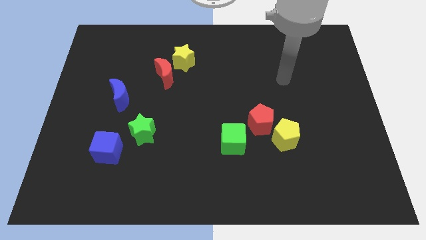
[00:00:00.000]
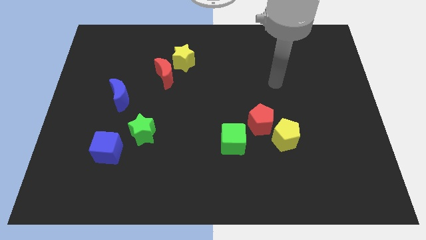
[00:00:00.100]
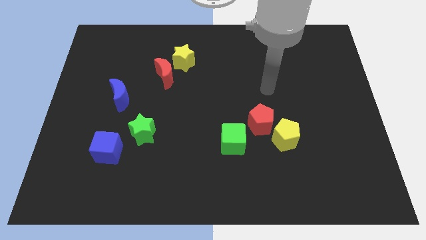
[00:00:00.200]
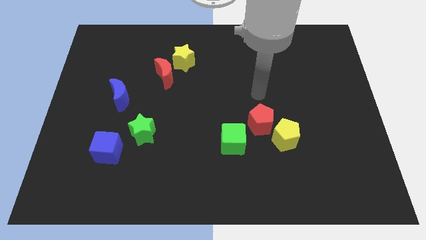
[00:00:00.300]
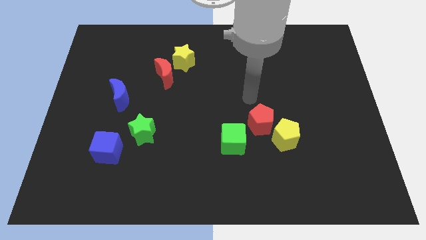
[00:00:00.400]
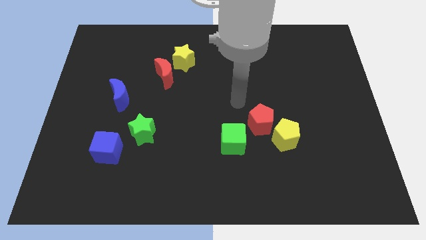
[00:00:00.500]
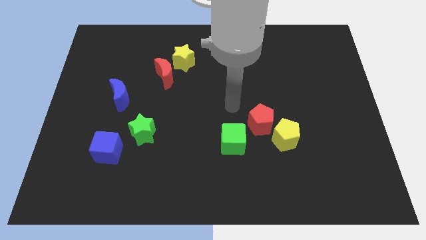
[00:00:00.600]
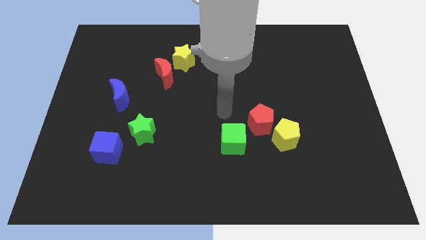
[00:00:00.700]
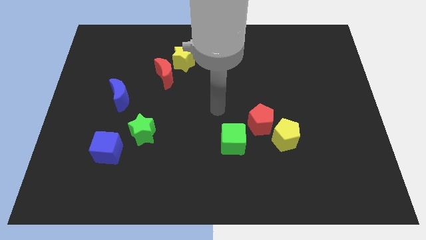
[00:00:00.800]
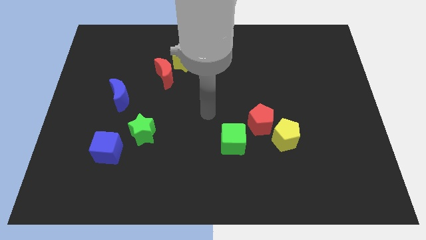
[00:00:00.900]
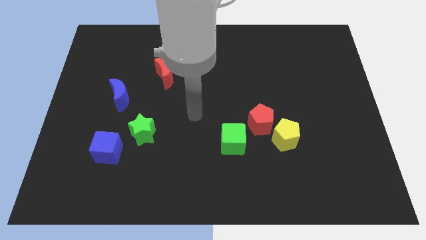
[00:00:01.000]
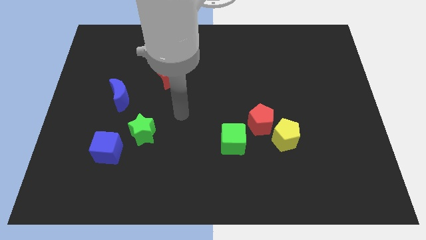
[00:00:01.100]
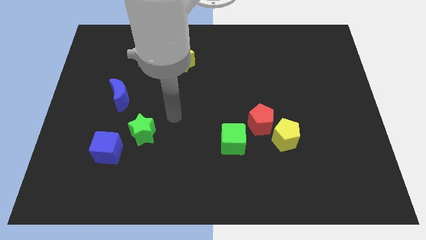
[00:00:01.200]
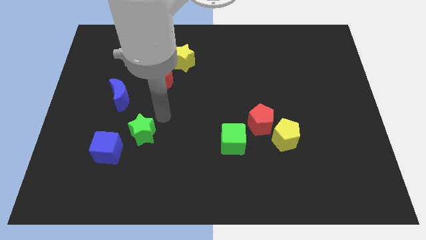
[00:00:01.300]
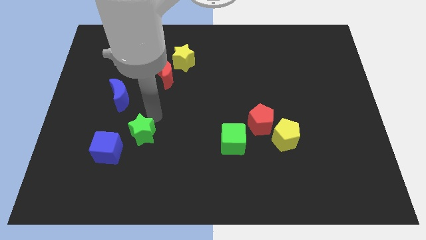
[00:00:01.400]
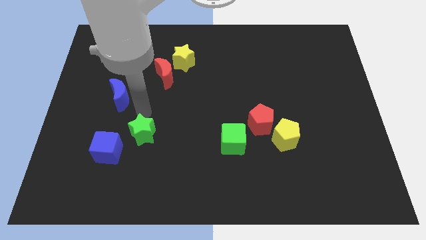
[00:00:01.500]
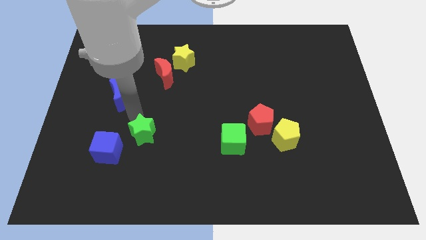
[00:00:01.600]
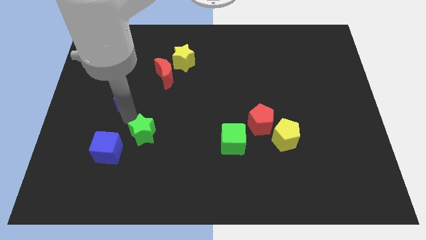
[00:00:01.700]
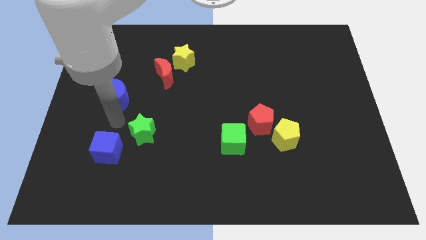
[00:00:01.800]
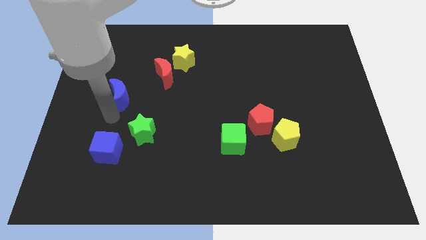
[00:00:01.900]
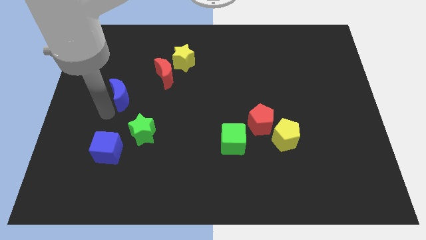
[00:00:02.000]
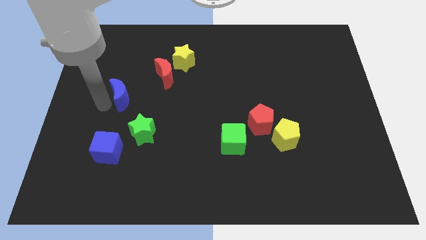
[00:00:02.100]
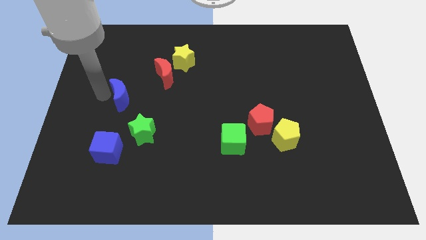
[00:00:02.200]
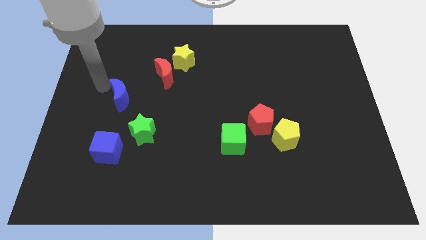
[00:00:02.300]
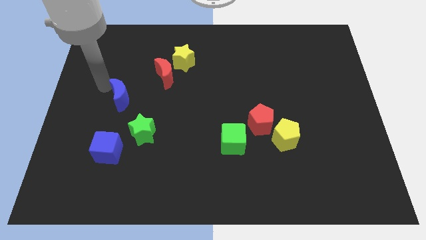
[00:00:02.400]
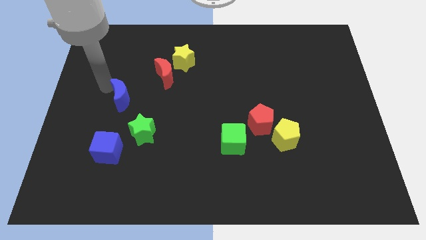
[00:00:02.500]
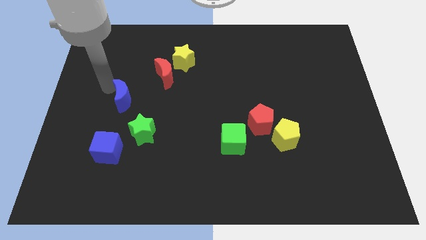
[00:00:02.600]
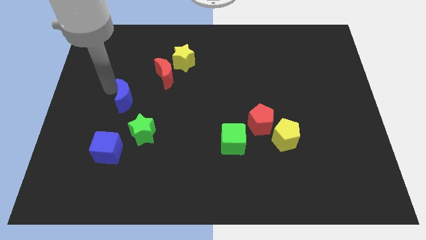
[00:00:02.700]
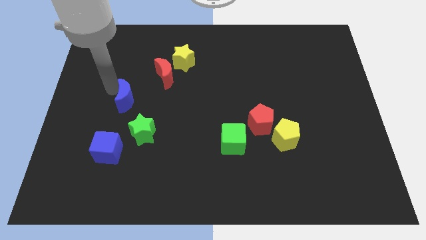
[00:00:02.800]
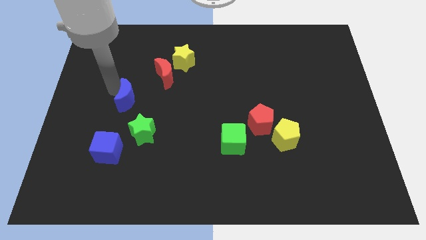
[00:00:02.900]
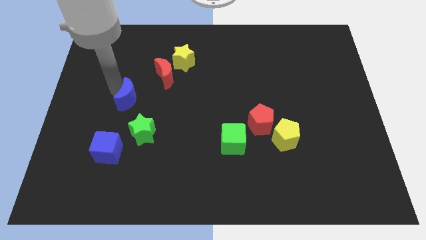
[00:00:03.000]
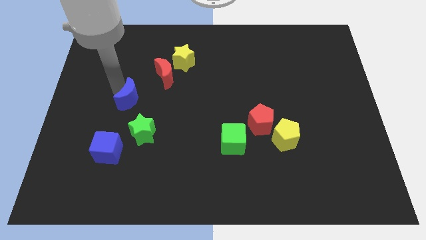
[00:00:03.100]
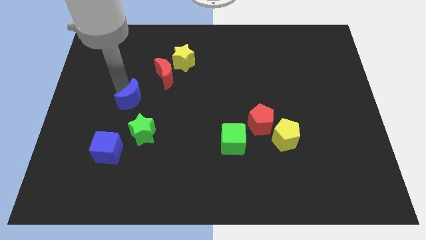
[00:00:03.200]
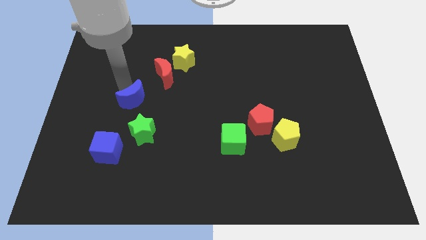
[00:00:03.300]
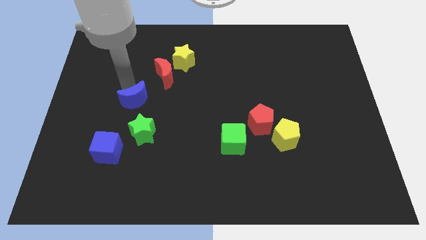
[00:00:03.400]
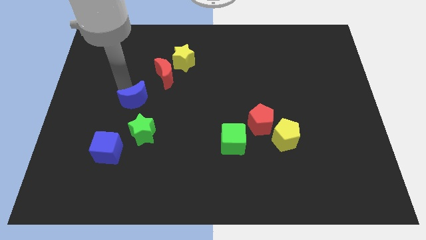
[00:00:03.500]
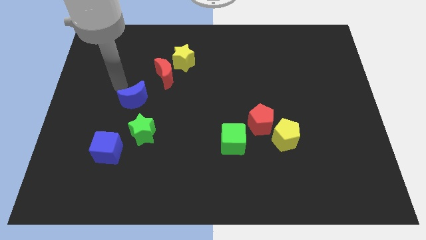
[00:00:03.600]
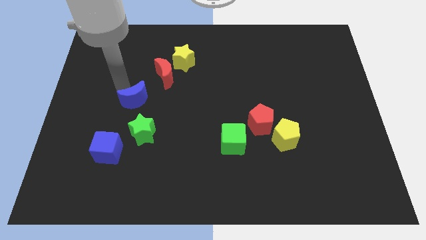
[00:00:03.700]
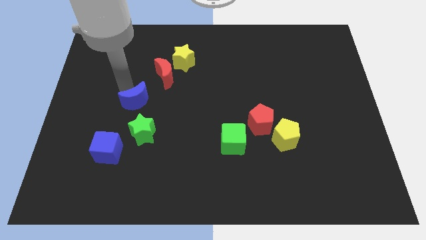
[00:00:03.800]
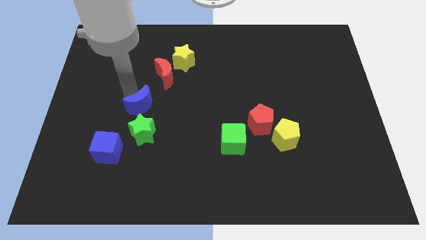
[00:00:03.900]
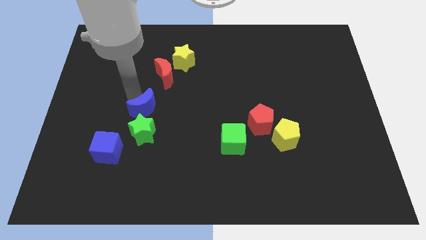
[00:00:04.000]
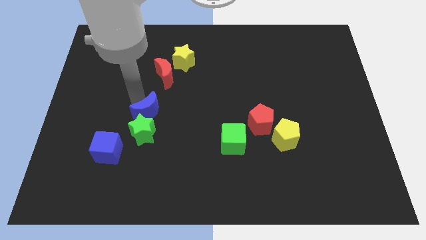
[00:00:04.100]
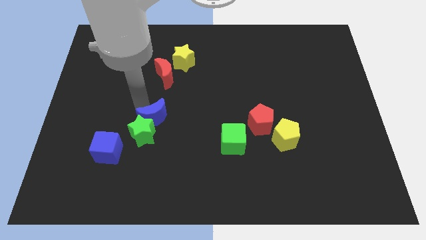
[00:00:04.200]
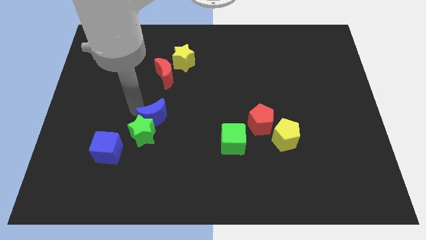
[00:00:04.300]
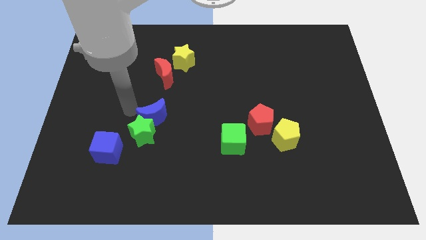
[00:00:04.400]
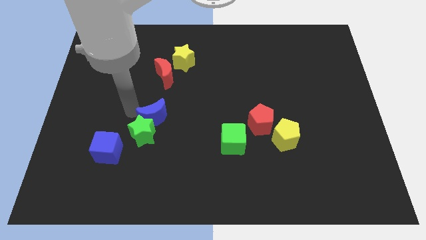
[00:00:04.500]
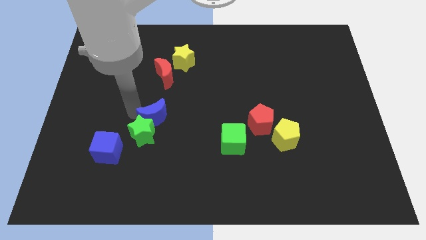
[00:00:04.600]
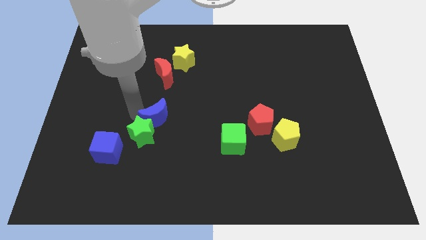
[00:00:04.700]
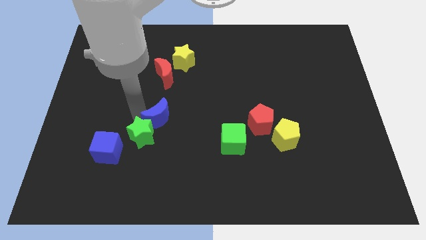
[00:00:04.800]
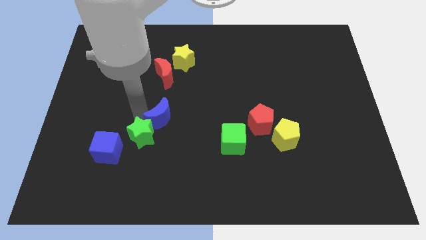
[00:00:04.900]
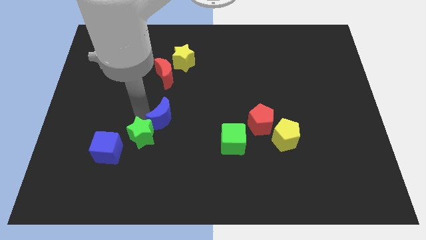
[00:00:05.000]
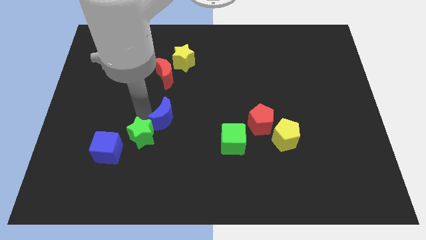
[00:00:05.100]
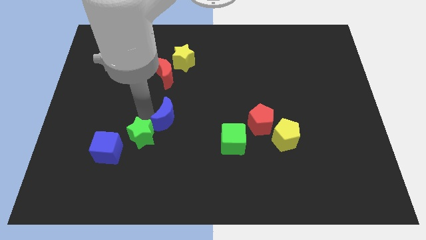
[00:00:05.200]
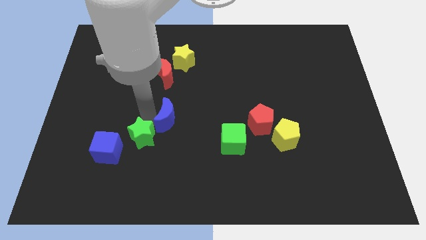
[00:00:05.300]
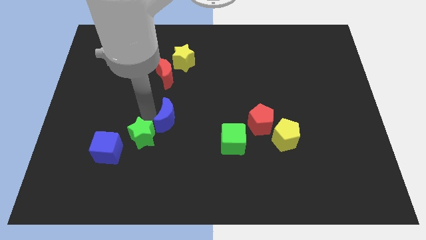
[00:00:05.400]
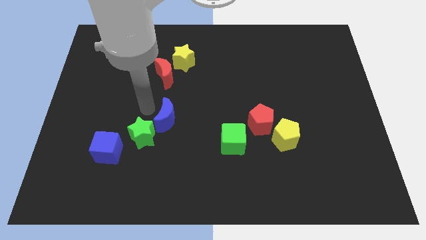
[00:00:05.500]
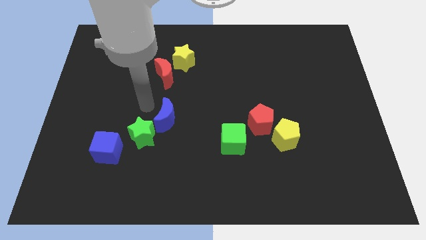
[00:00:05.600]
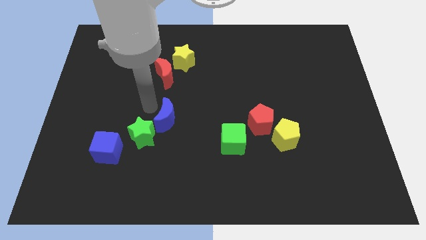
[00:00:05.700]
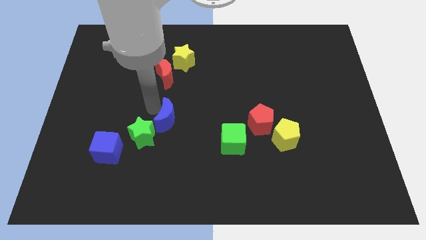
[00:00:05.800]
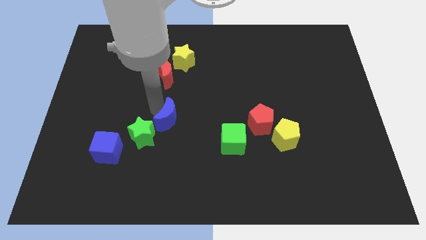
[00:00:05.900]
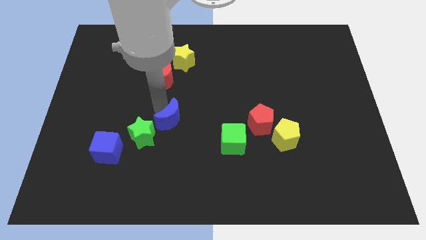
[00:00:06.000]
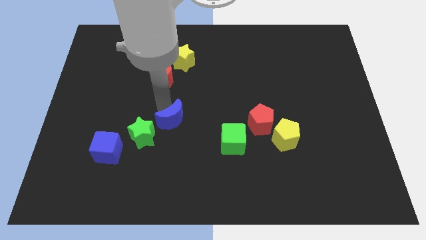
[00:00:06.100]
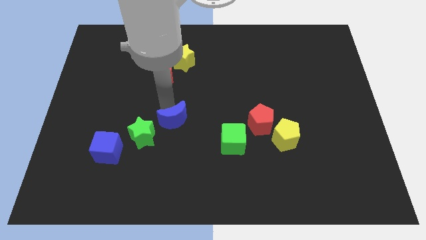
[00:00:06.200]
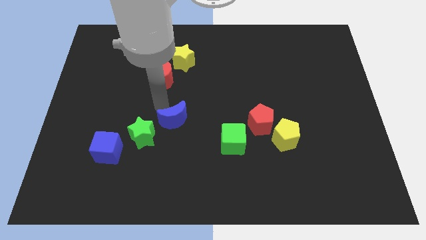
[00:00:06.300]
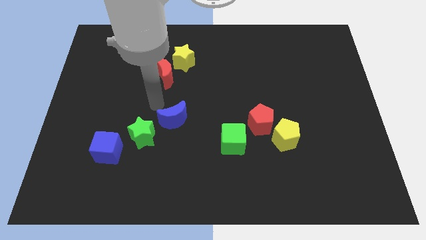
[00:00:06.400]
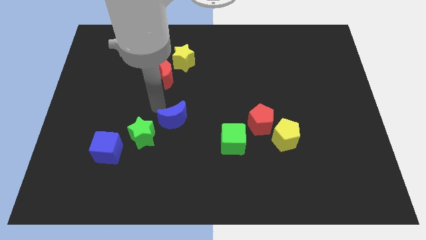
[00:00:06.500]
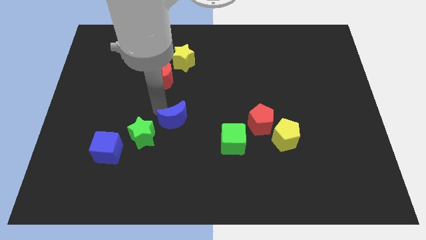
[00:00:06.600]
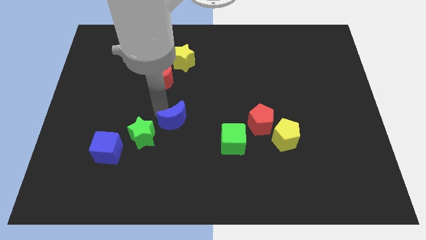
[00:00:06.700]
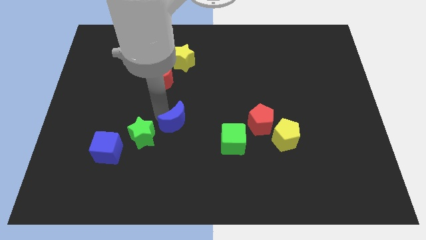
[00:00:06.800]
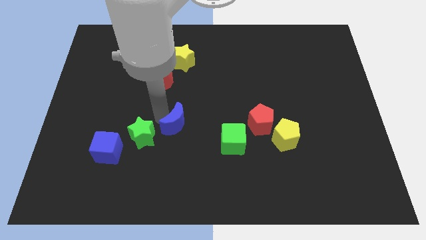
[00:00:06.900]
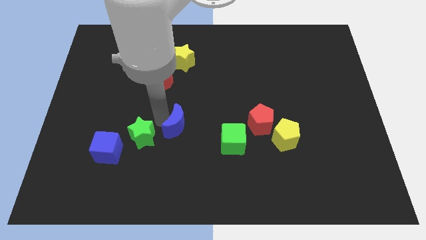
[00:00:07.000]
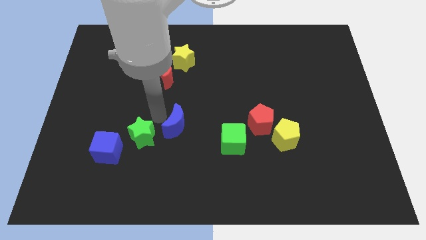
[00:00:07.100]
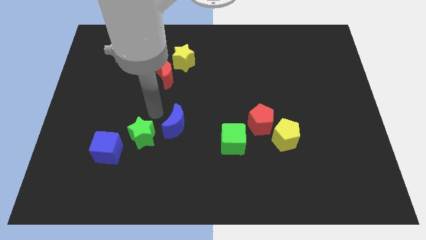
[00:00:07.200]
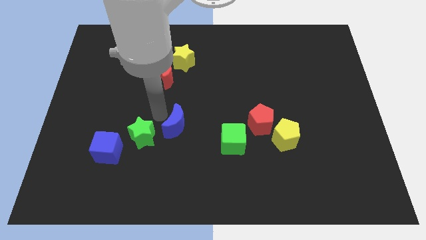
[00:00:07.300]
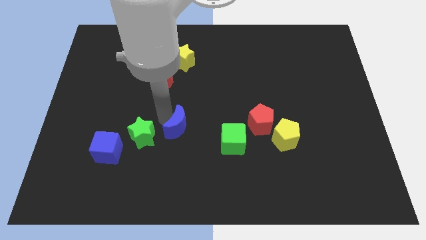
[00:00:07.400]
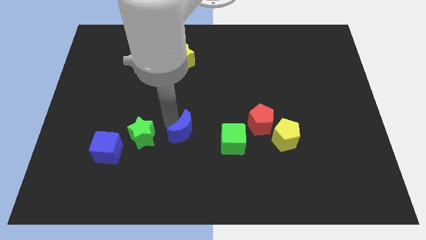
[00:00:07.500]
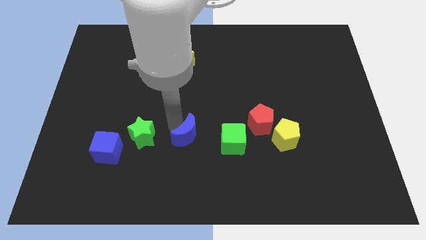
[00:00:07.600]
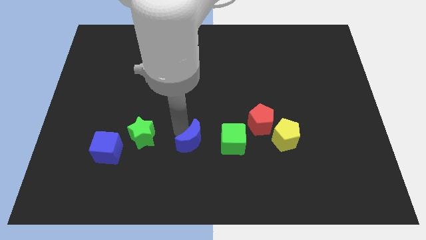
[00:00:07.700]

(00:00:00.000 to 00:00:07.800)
move the blue moon down and then right

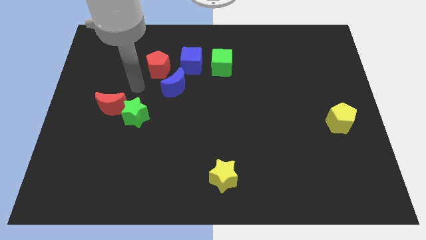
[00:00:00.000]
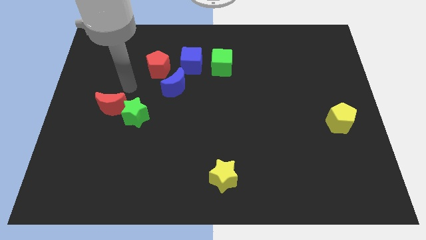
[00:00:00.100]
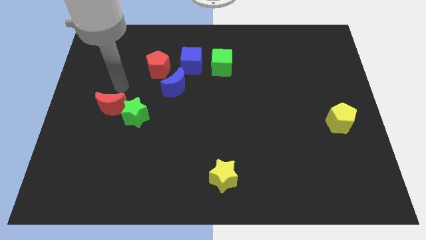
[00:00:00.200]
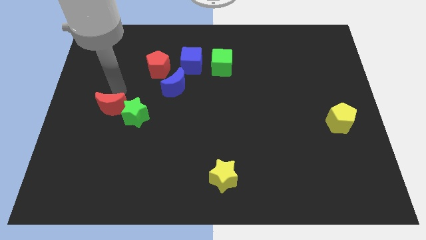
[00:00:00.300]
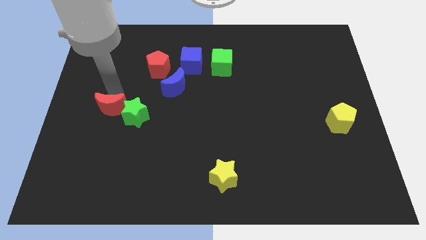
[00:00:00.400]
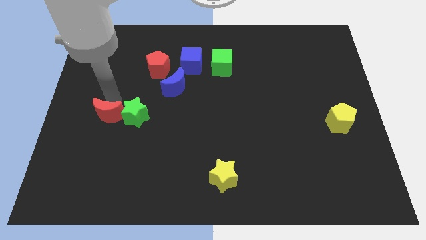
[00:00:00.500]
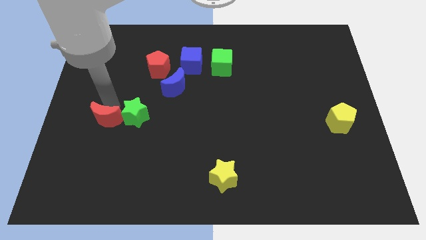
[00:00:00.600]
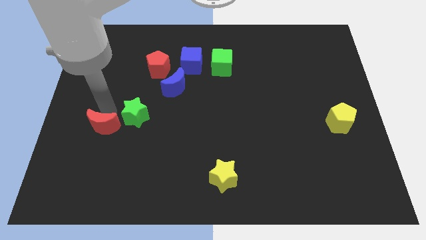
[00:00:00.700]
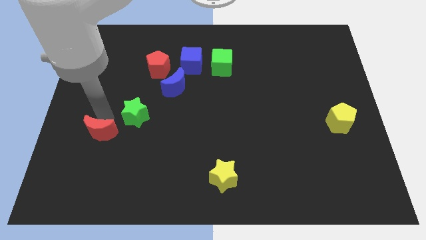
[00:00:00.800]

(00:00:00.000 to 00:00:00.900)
slide the red moon downwards a bit

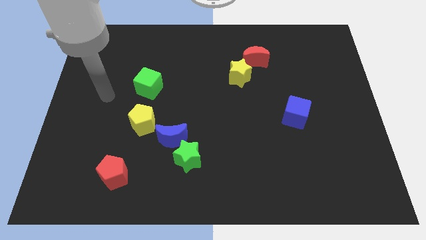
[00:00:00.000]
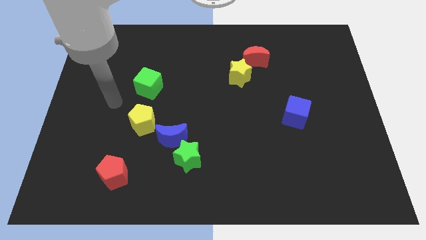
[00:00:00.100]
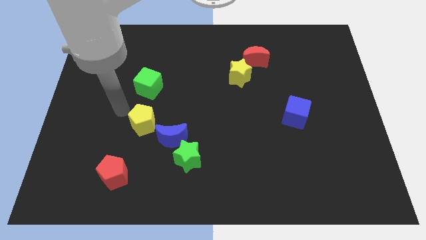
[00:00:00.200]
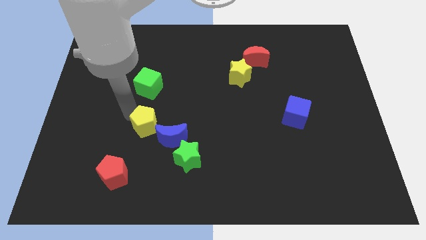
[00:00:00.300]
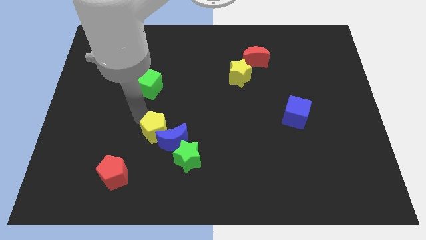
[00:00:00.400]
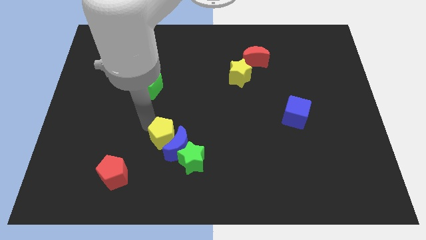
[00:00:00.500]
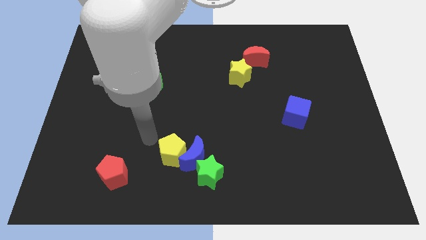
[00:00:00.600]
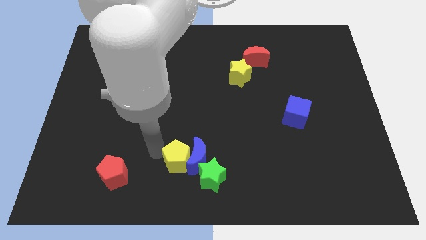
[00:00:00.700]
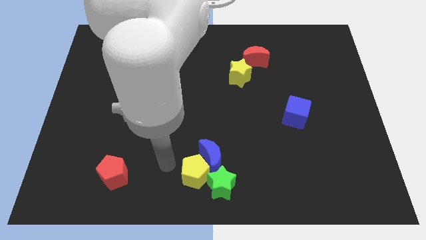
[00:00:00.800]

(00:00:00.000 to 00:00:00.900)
move the blue moon right a little bit
